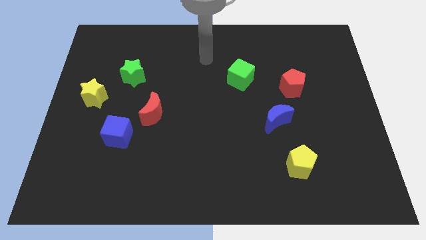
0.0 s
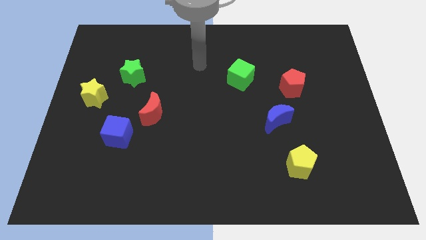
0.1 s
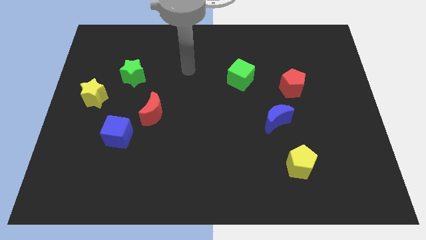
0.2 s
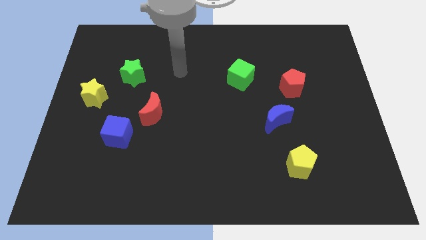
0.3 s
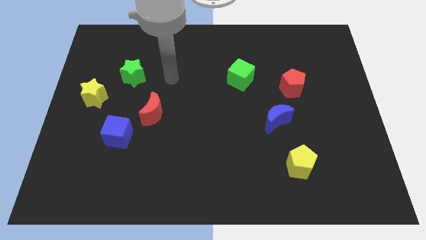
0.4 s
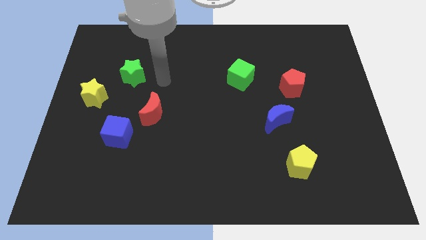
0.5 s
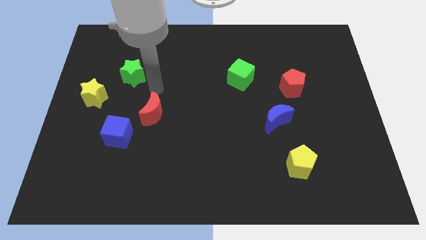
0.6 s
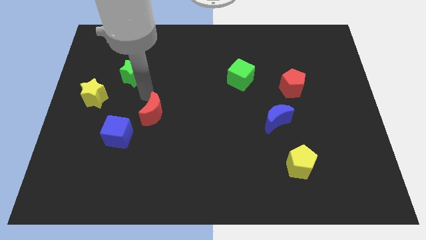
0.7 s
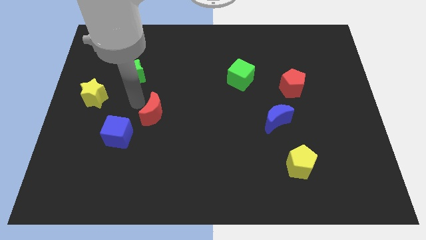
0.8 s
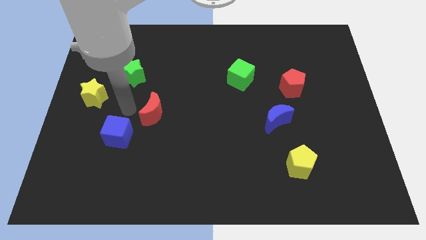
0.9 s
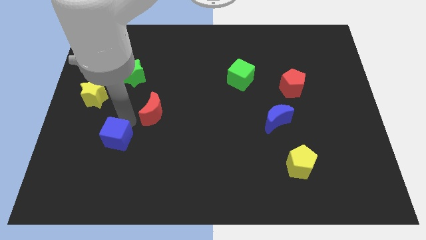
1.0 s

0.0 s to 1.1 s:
move the red moon away from the blue cube

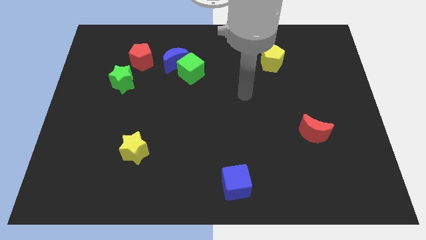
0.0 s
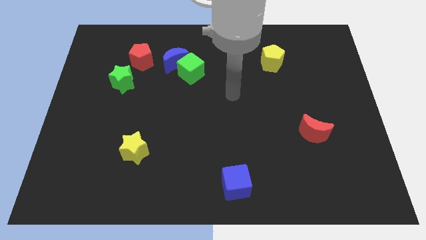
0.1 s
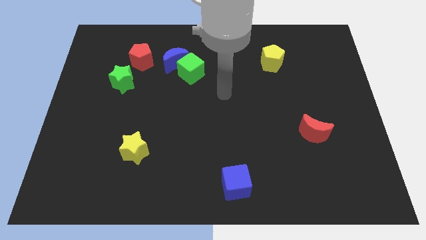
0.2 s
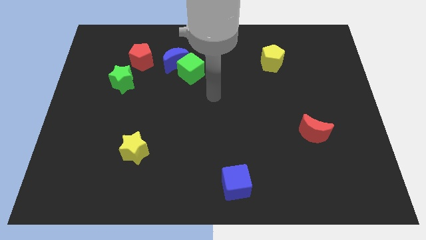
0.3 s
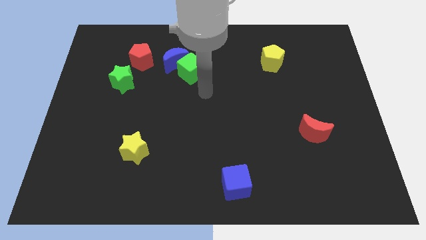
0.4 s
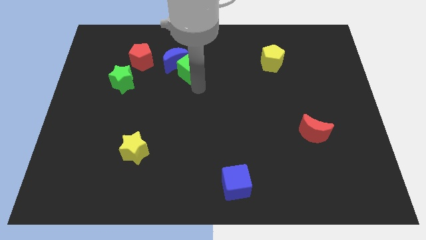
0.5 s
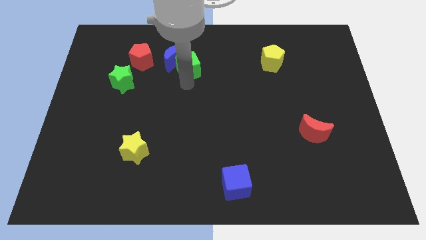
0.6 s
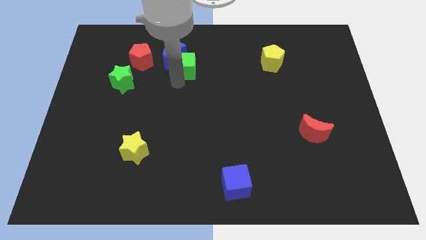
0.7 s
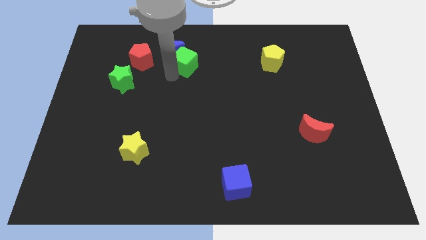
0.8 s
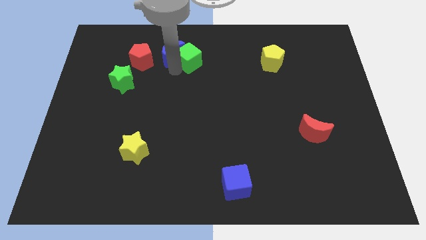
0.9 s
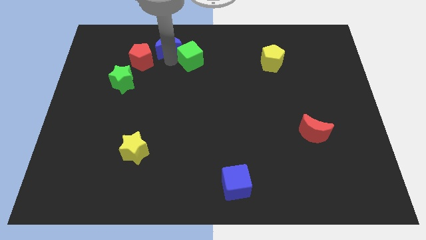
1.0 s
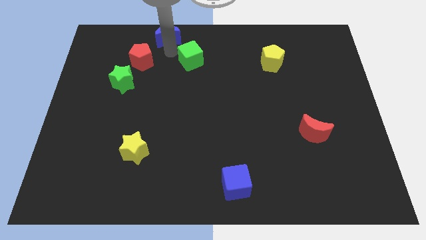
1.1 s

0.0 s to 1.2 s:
separate the green cube from the blue moon

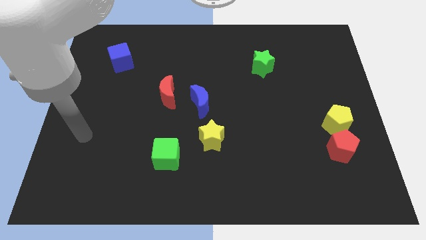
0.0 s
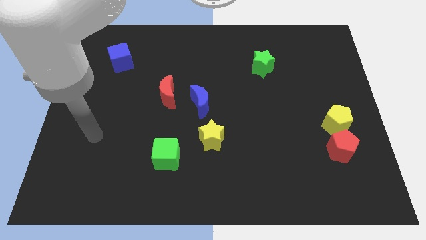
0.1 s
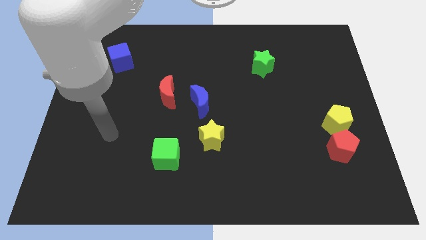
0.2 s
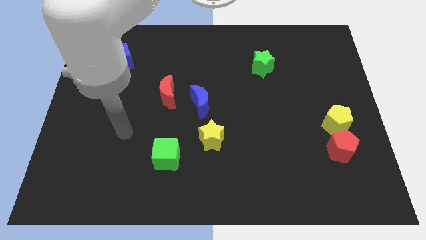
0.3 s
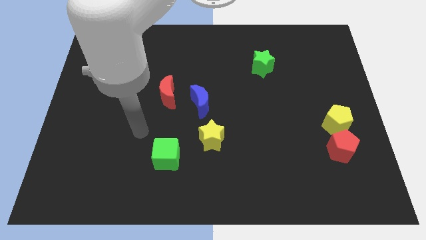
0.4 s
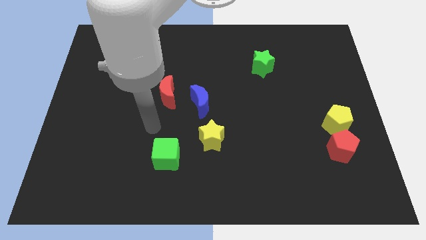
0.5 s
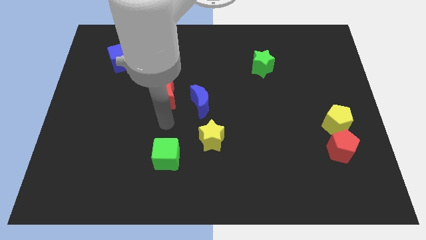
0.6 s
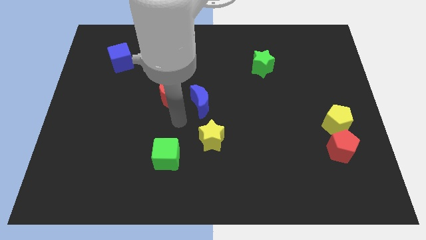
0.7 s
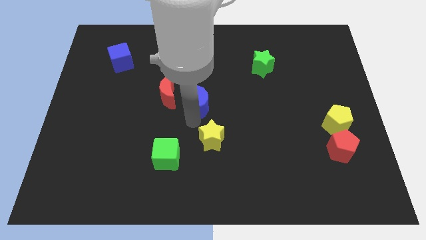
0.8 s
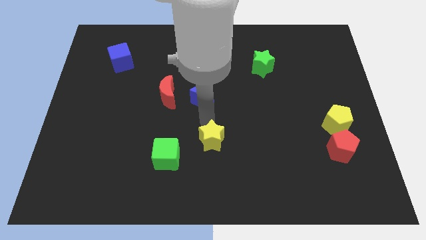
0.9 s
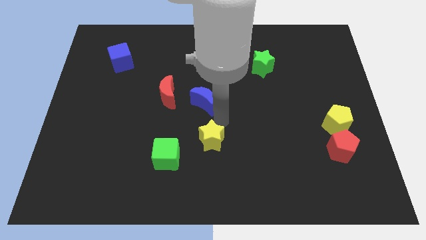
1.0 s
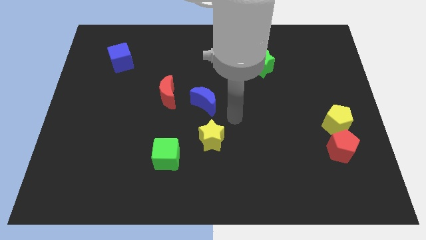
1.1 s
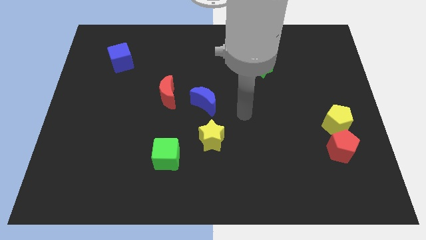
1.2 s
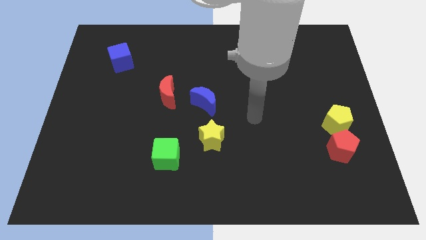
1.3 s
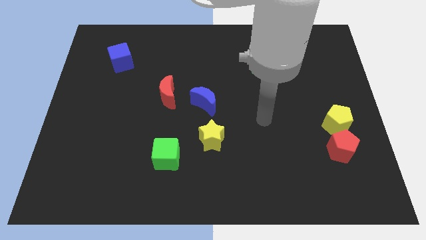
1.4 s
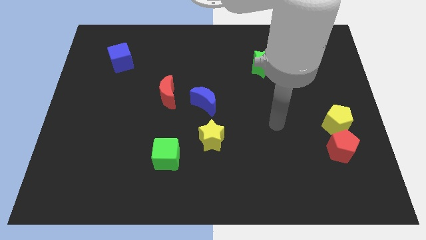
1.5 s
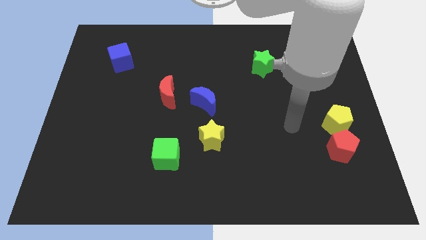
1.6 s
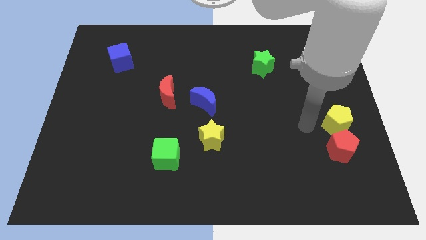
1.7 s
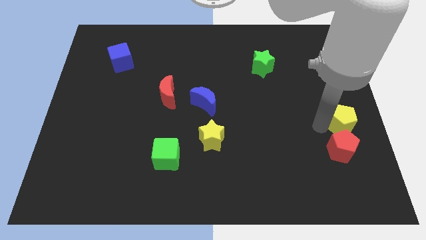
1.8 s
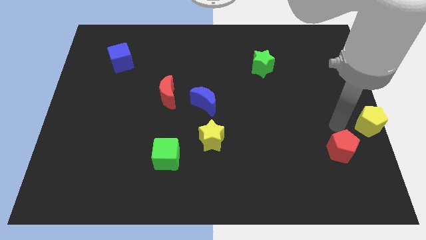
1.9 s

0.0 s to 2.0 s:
pull the red pentagon apart from the yellow pentagon

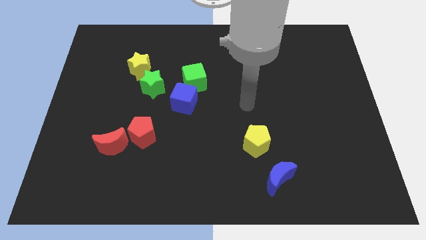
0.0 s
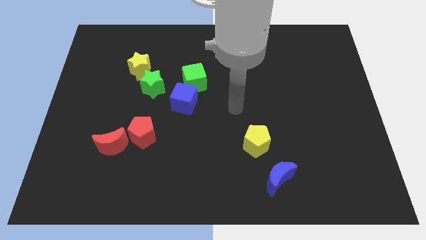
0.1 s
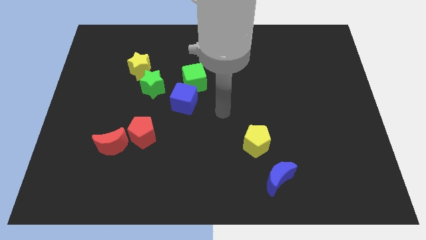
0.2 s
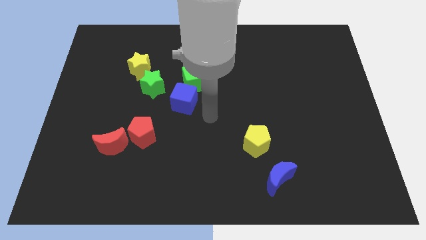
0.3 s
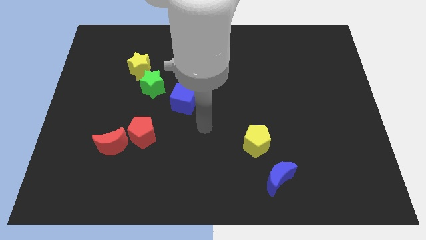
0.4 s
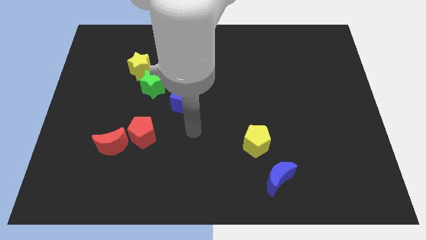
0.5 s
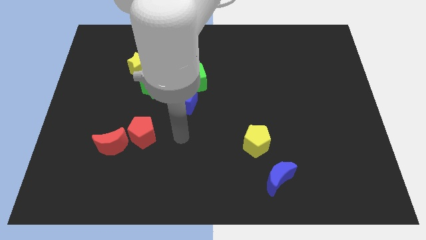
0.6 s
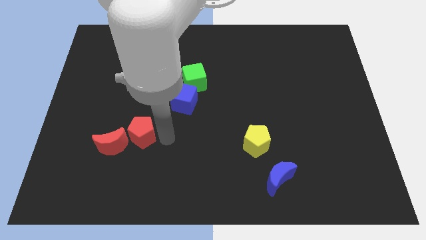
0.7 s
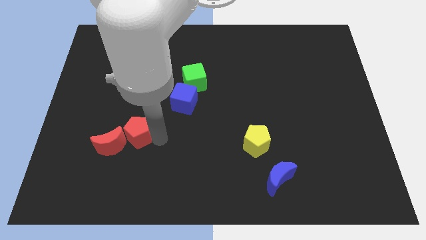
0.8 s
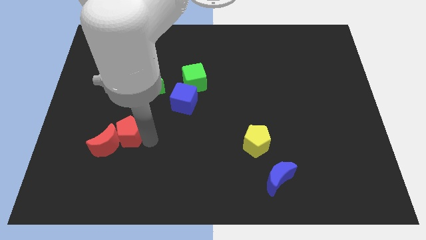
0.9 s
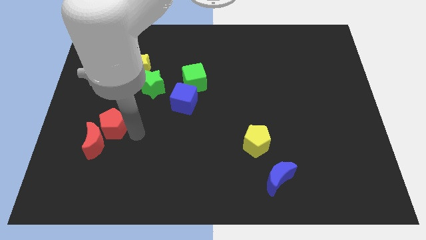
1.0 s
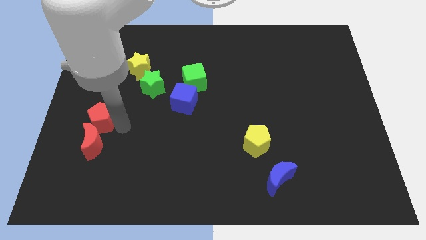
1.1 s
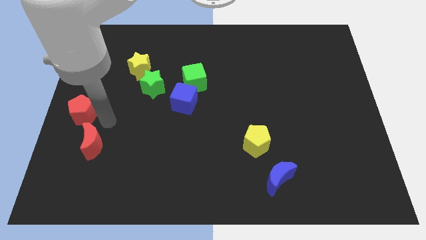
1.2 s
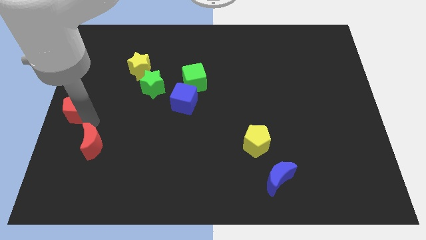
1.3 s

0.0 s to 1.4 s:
move the red moon away from the red pentagon

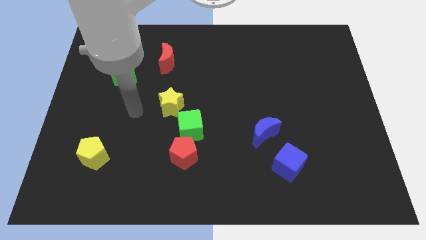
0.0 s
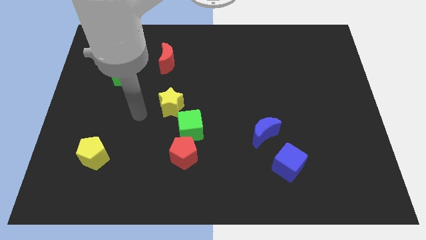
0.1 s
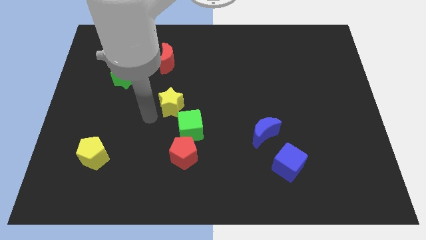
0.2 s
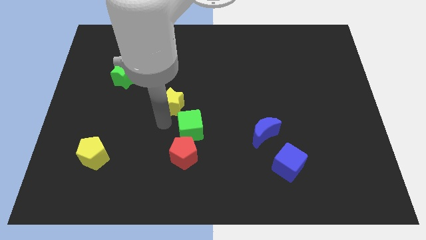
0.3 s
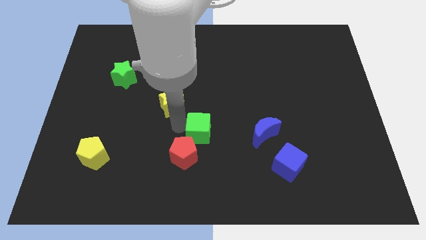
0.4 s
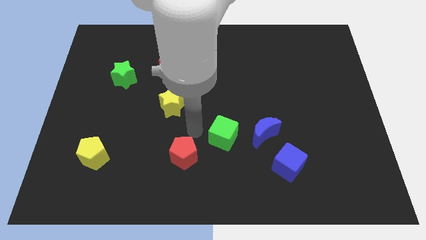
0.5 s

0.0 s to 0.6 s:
pull the red pentagon apart from the green cube

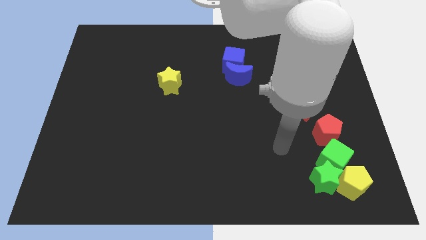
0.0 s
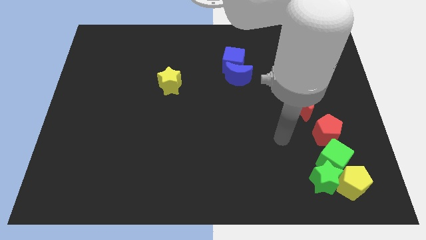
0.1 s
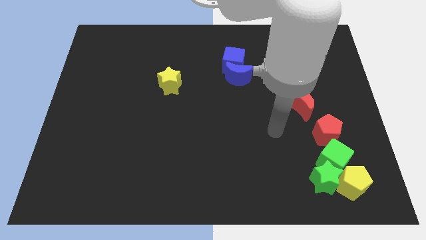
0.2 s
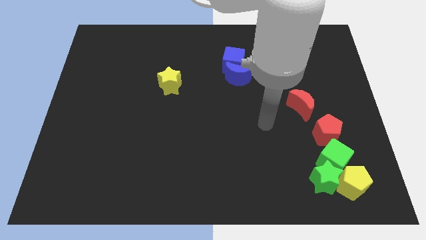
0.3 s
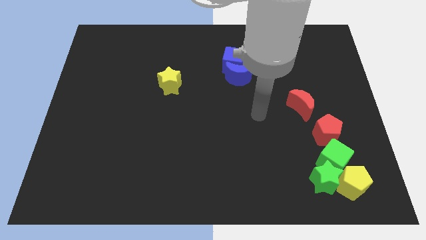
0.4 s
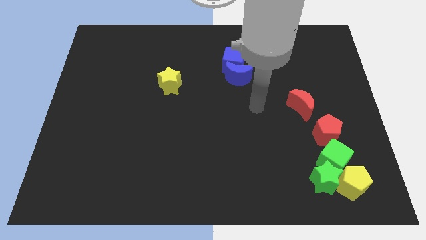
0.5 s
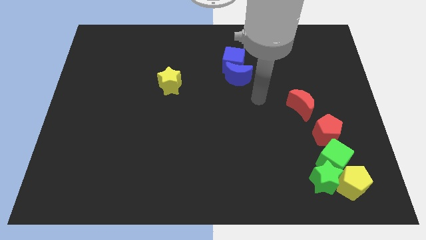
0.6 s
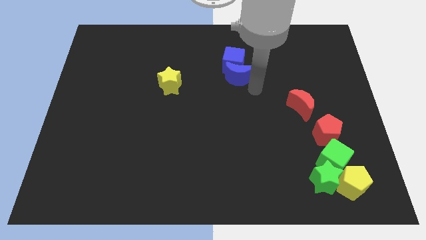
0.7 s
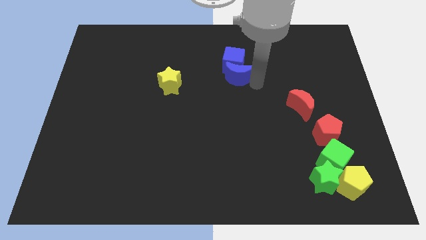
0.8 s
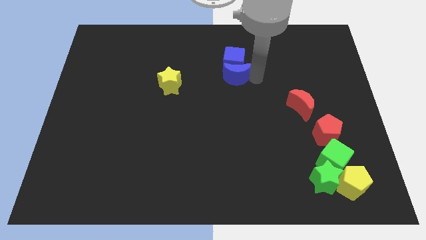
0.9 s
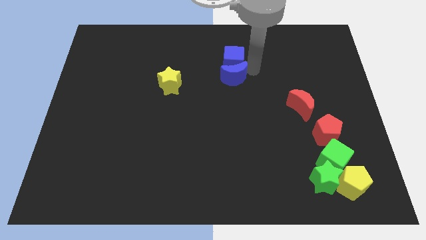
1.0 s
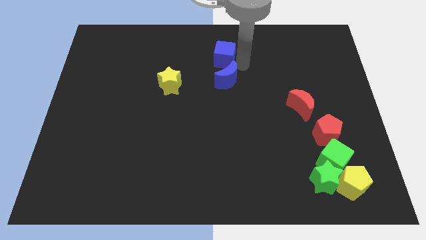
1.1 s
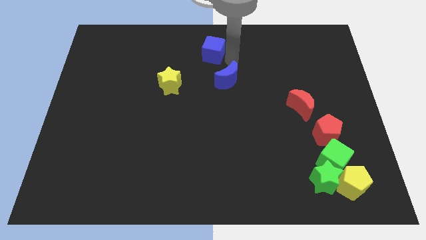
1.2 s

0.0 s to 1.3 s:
pull the blue moon apart from the blue cube

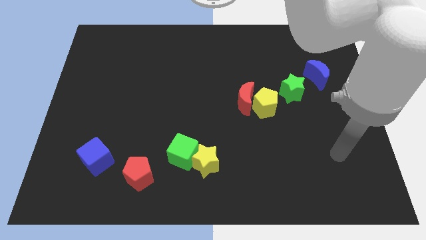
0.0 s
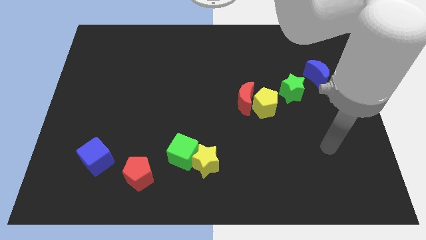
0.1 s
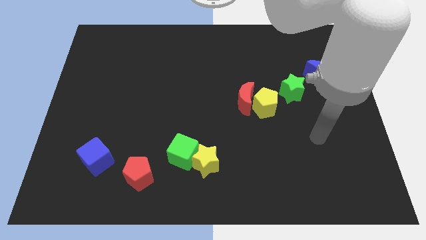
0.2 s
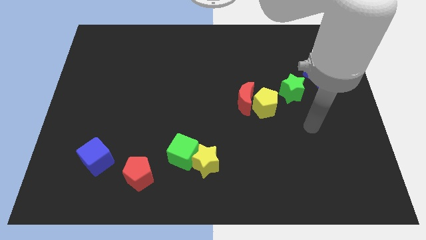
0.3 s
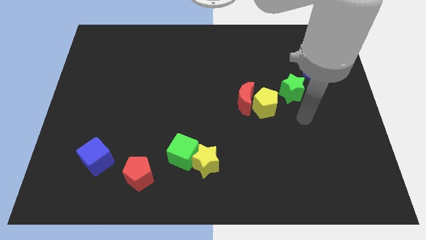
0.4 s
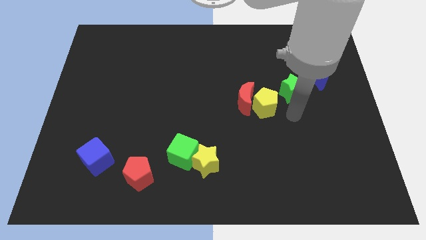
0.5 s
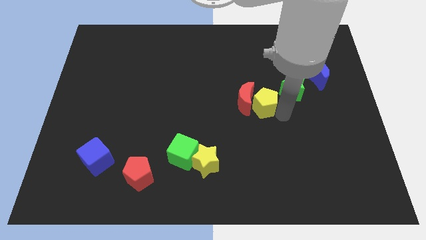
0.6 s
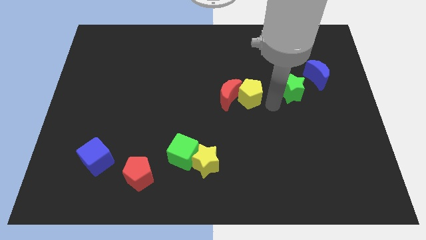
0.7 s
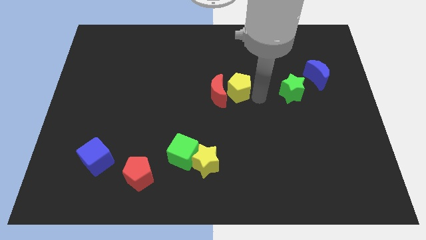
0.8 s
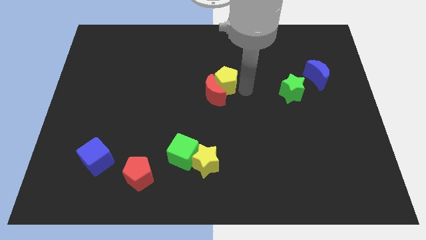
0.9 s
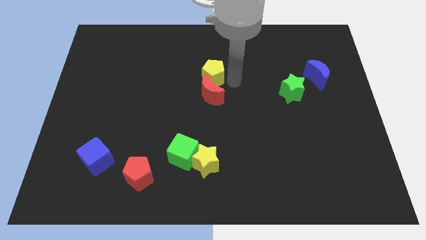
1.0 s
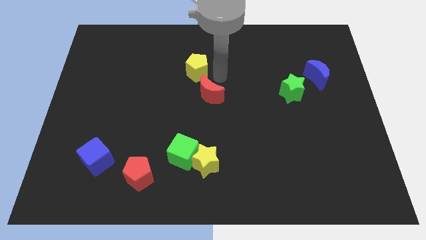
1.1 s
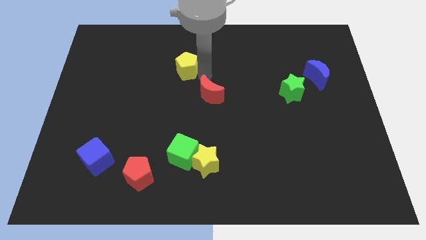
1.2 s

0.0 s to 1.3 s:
pull the red moon apart from the yellow pentagon

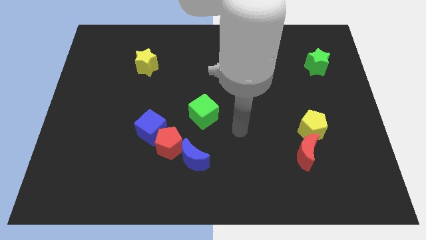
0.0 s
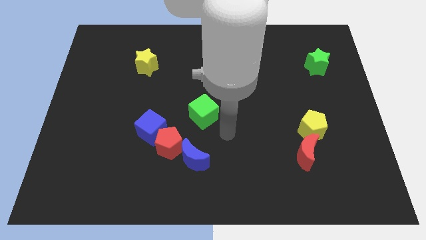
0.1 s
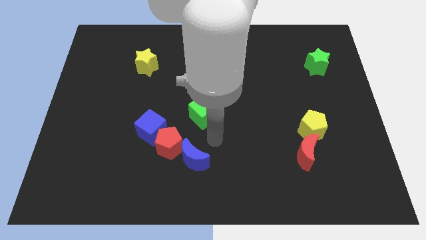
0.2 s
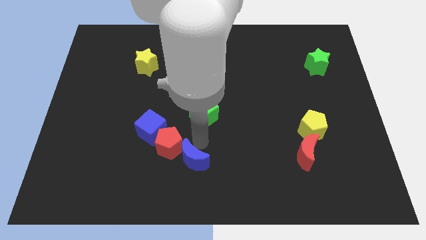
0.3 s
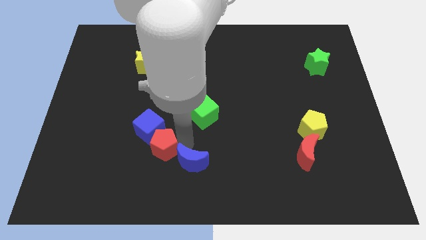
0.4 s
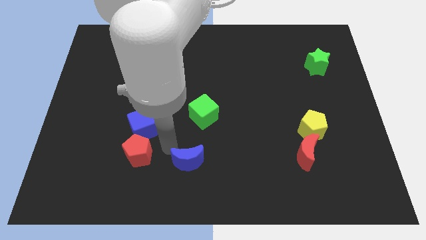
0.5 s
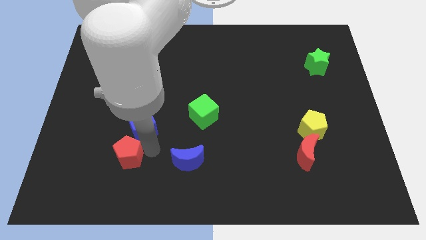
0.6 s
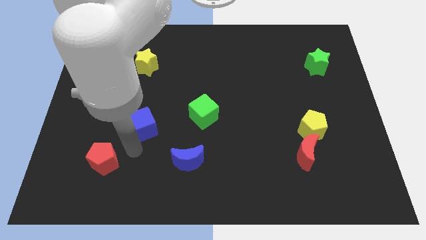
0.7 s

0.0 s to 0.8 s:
pull the blue cube apart from the red pentagon
